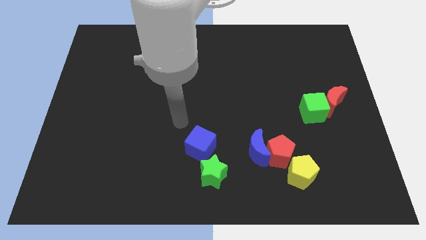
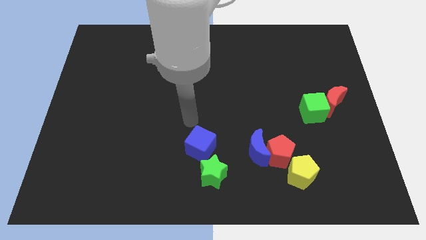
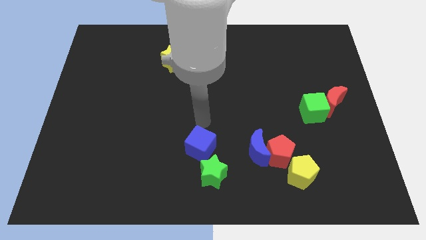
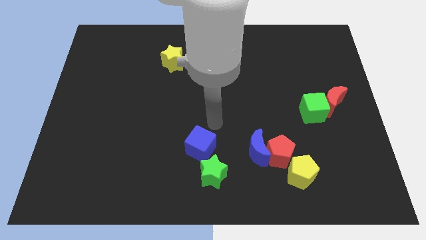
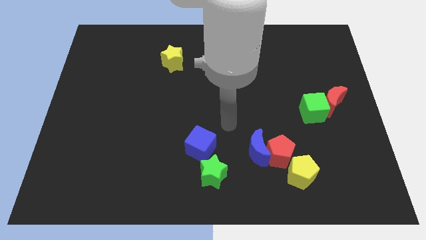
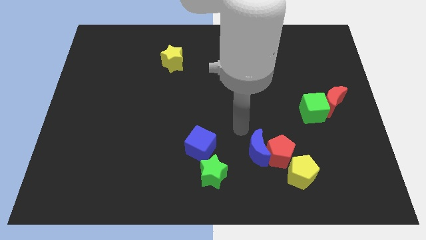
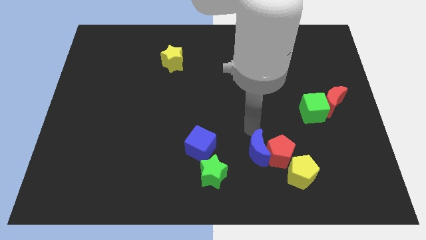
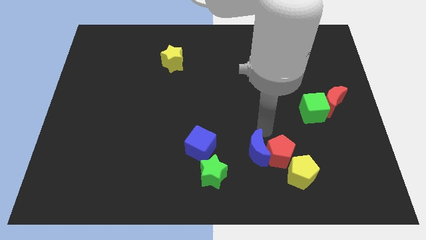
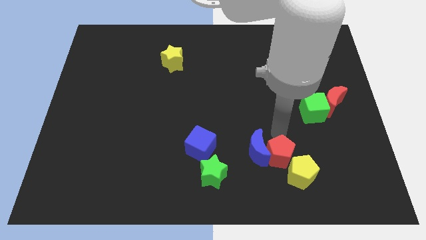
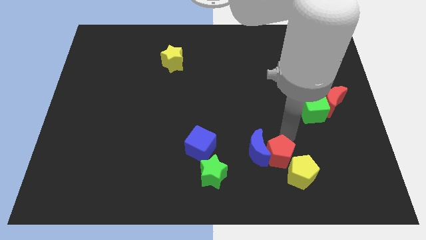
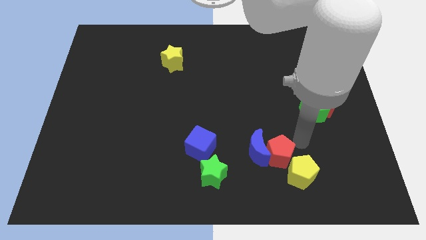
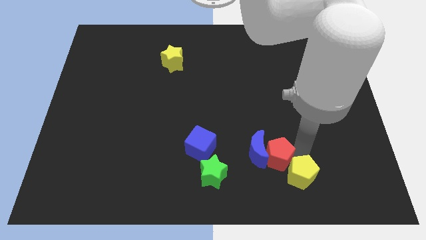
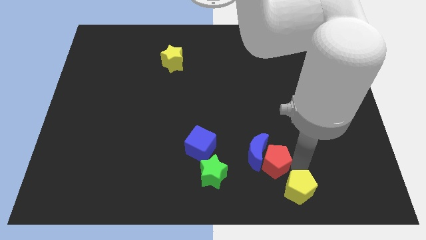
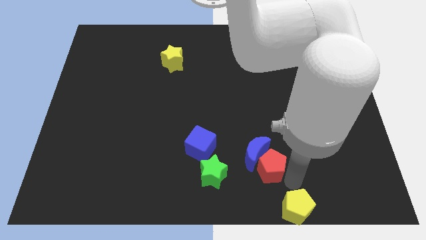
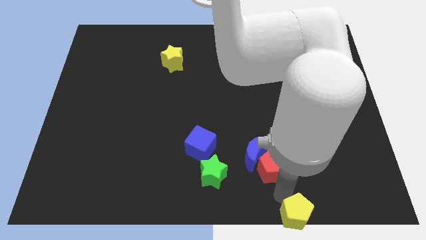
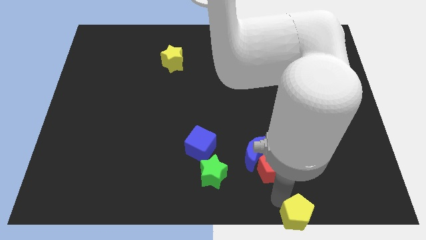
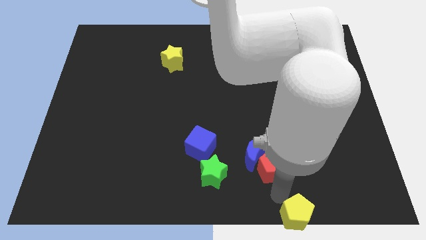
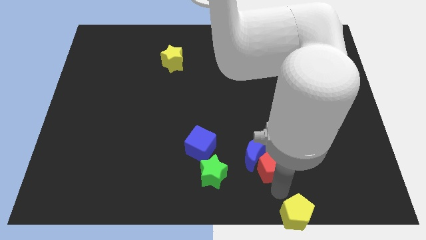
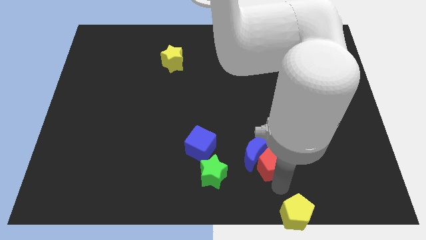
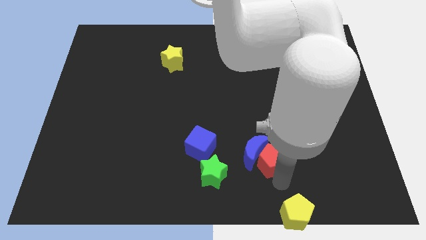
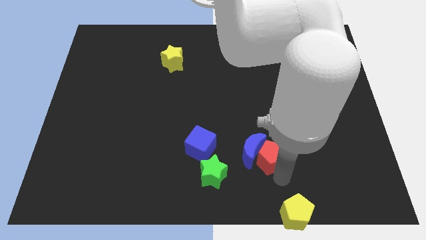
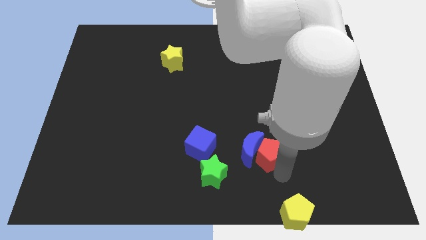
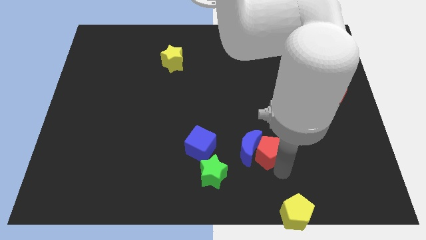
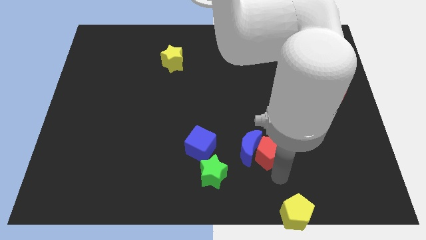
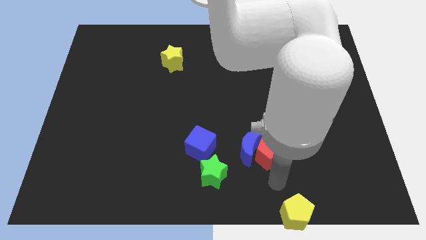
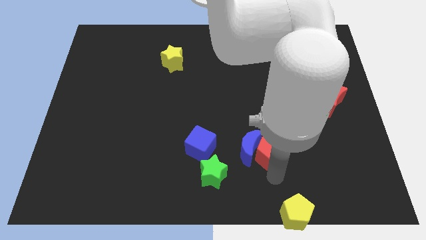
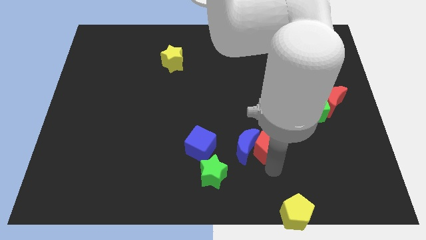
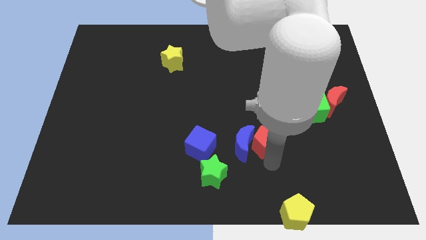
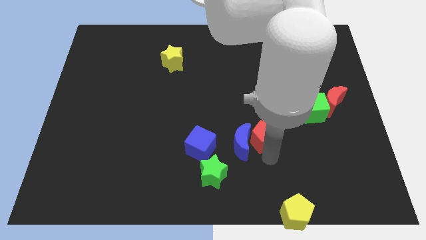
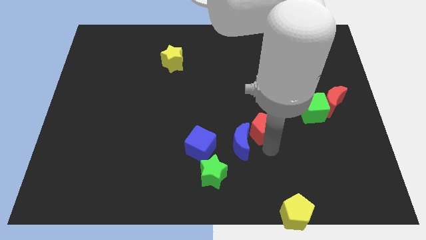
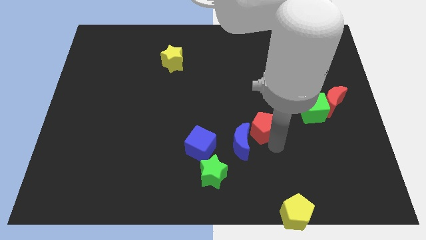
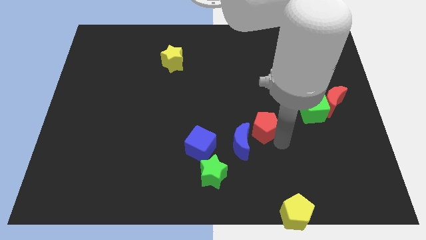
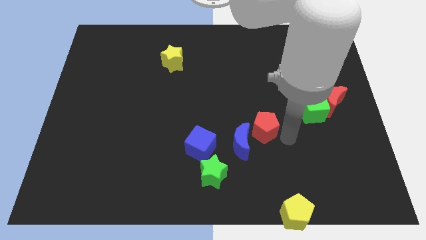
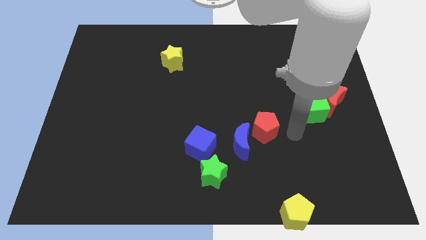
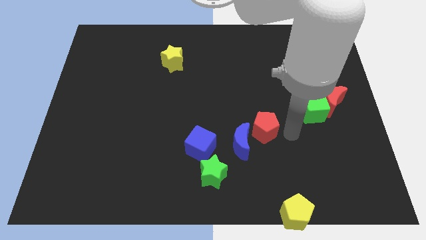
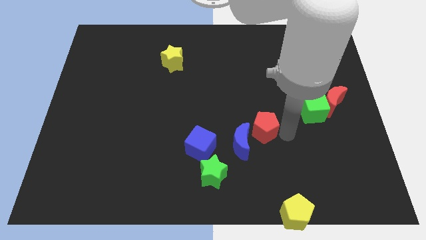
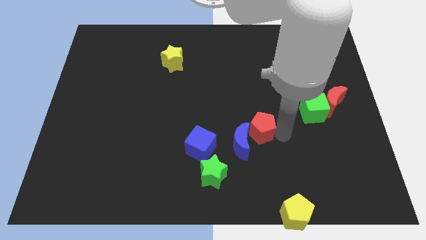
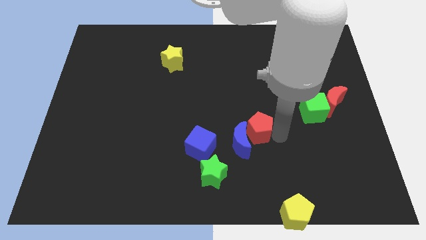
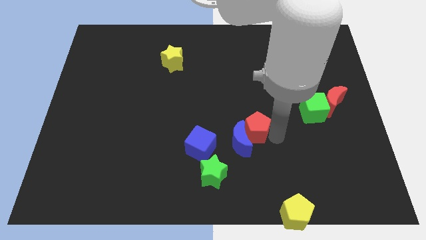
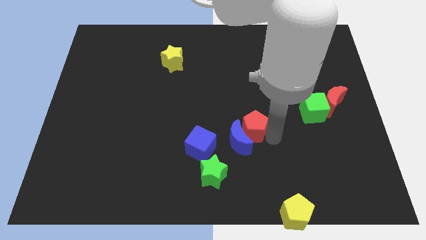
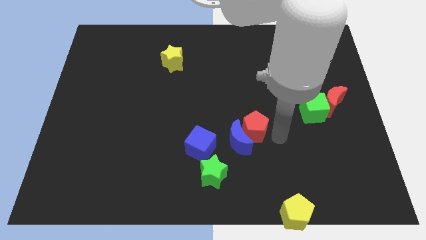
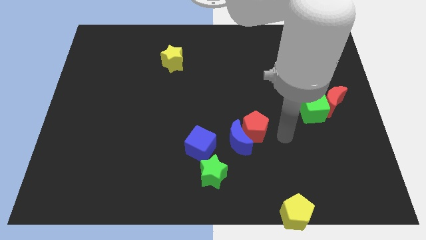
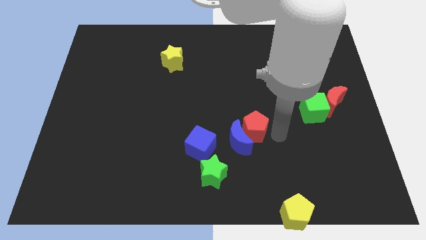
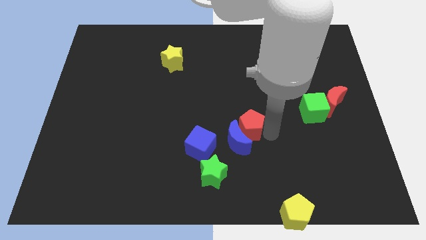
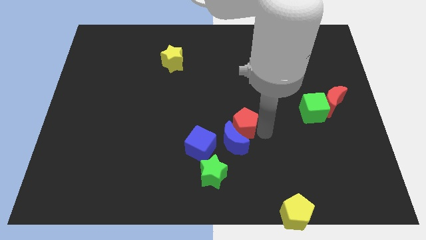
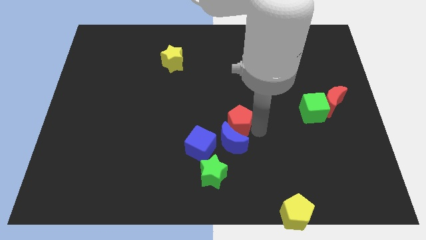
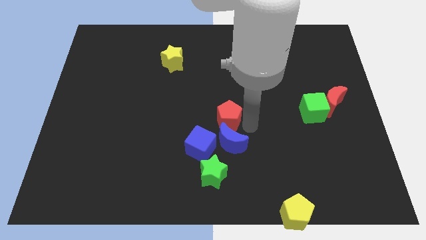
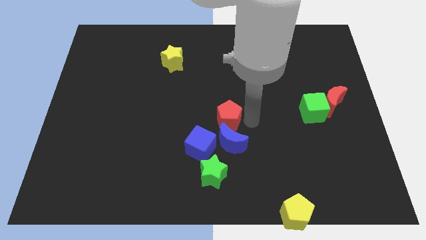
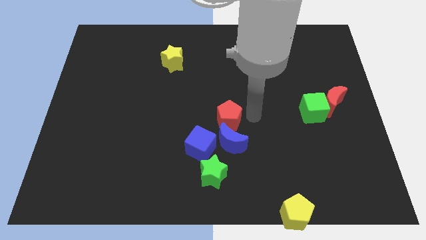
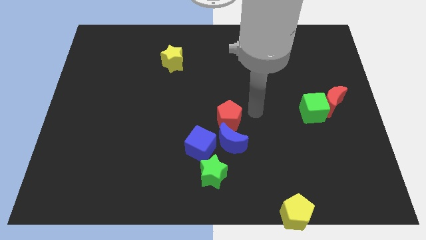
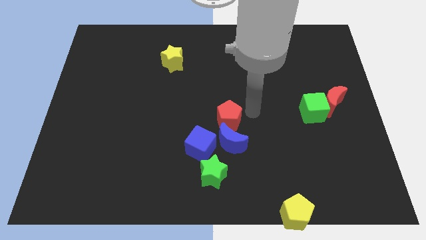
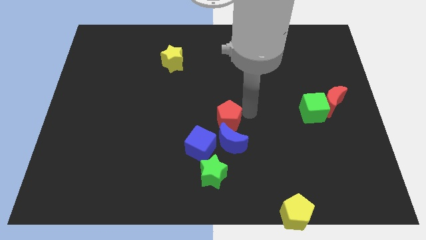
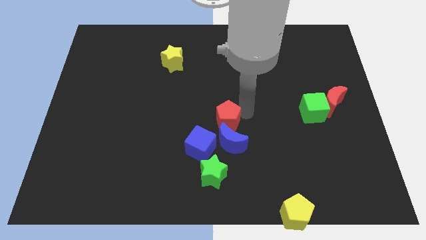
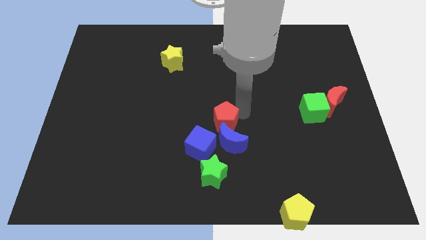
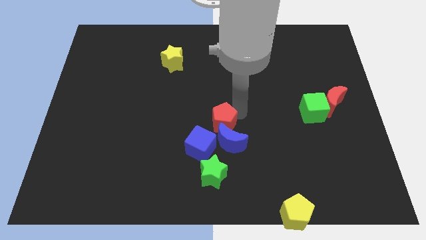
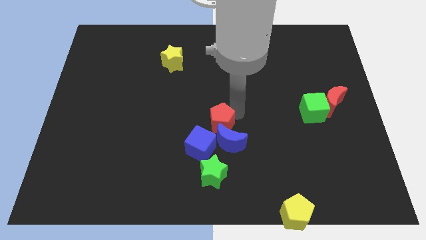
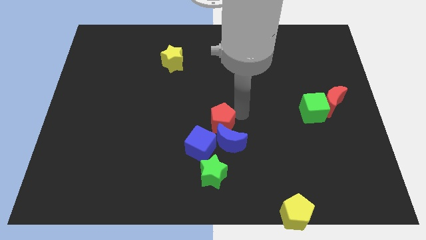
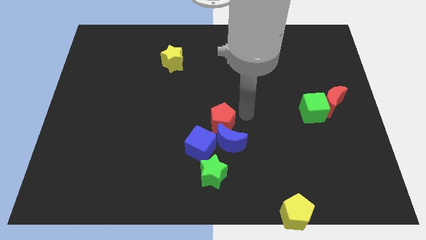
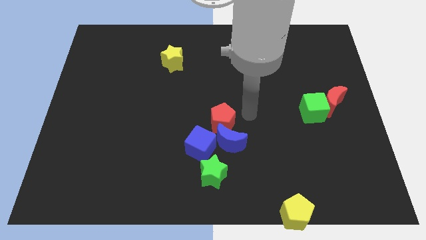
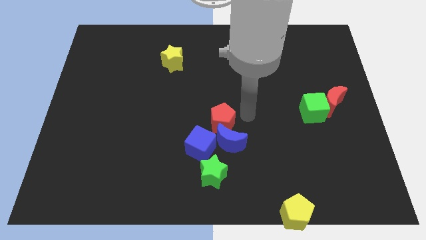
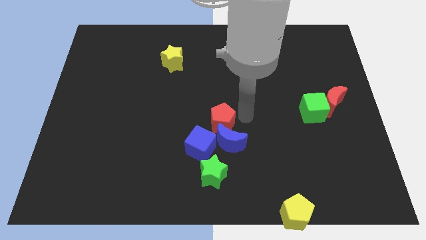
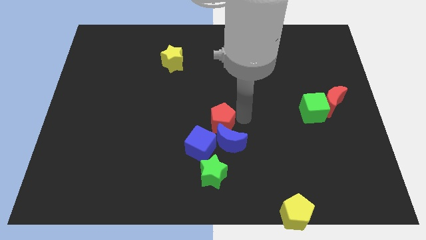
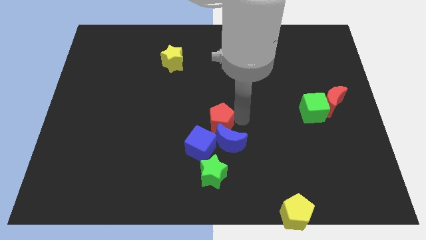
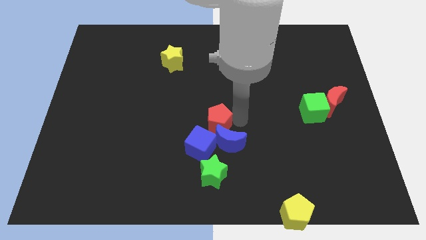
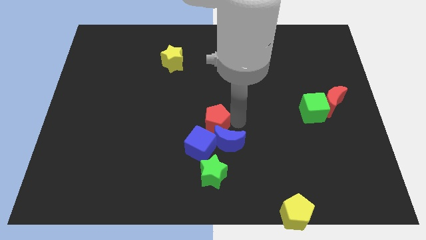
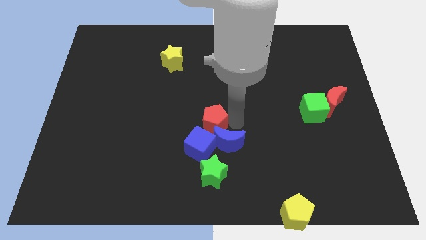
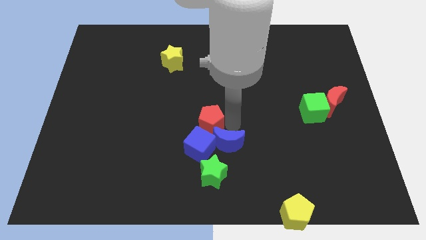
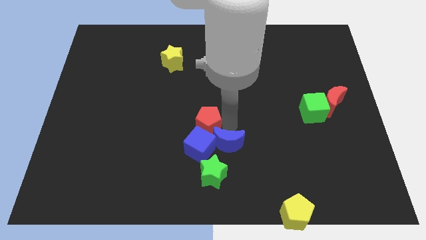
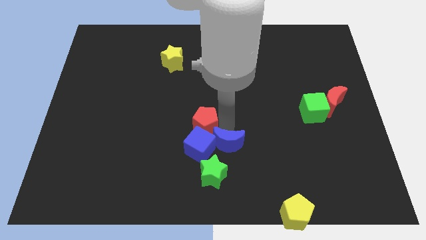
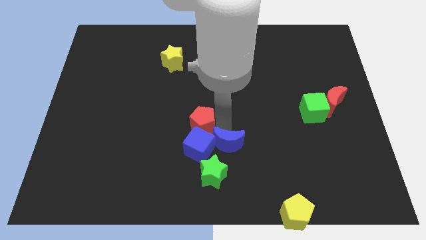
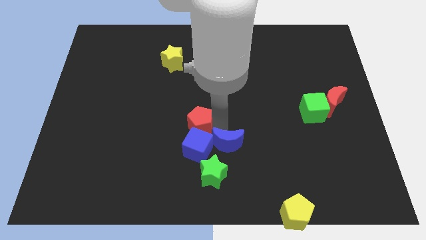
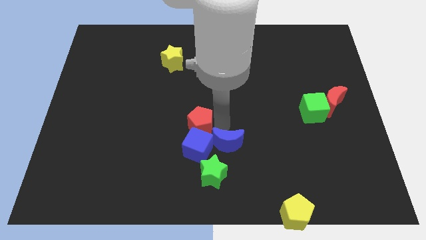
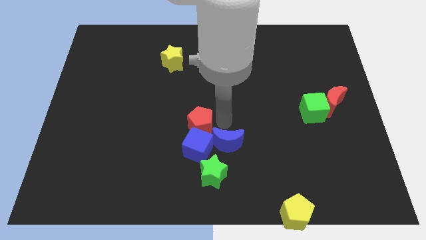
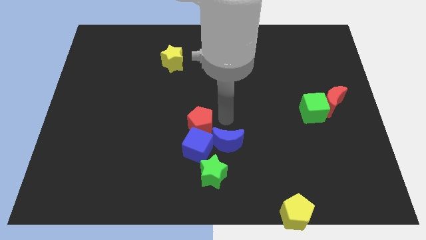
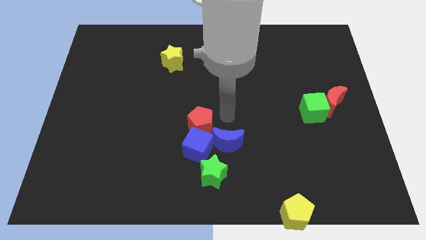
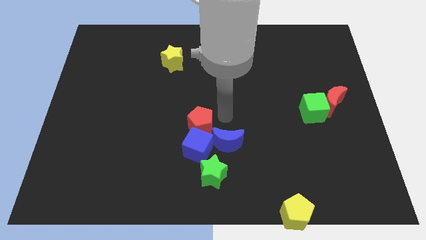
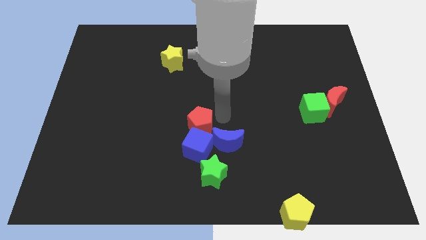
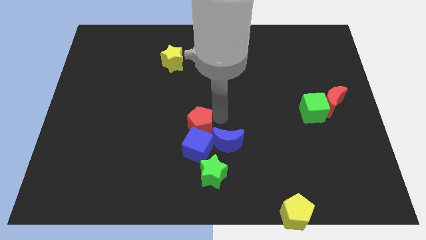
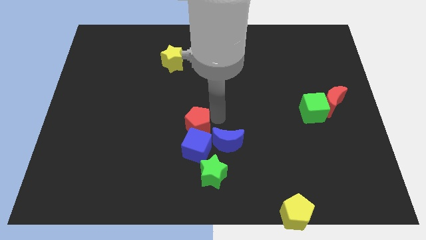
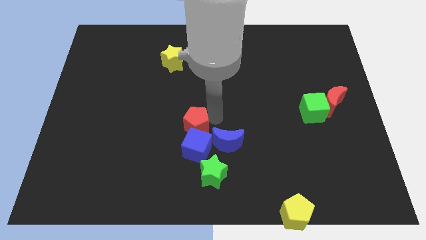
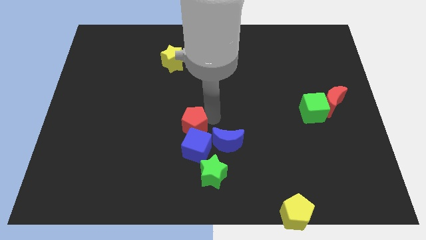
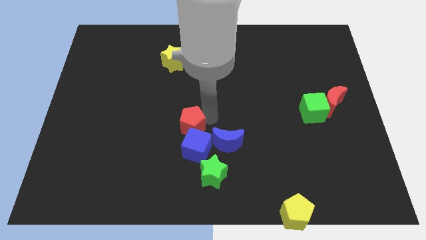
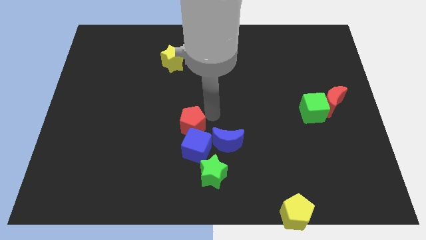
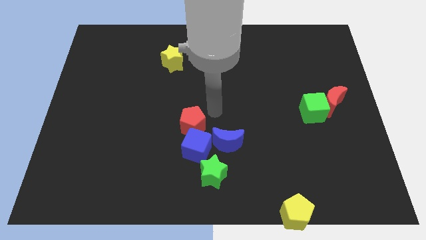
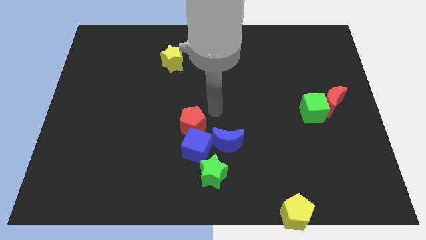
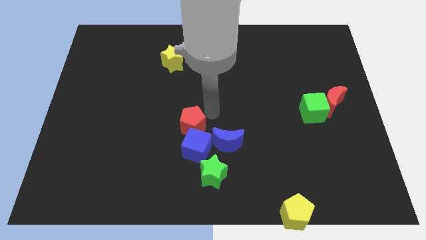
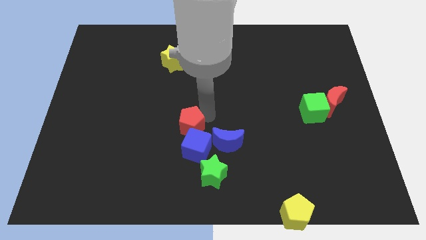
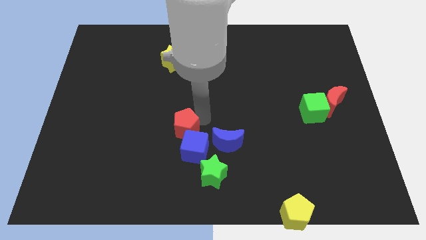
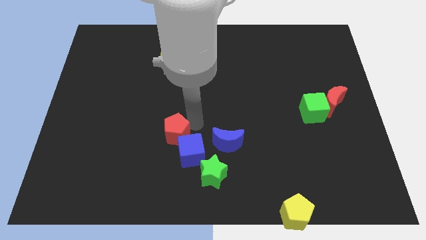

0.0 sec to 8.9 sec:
move the red pentagon left
